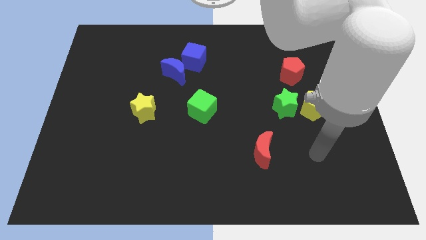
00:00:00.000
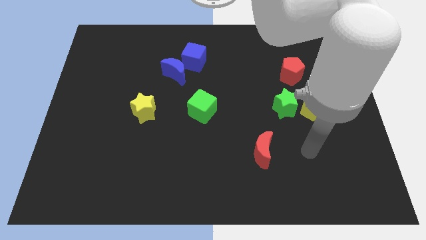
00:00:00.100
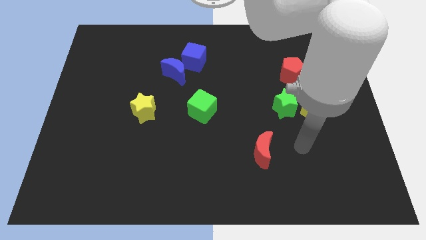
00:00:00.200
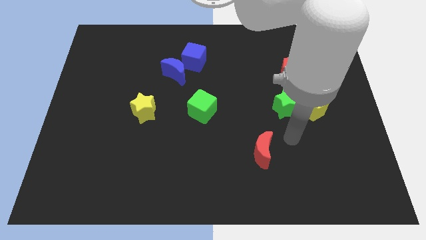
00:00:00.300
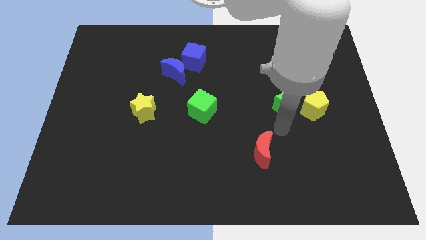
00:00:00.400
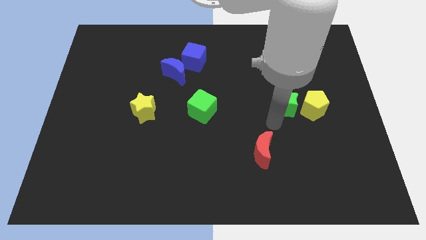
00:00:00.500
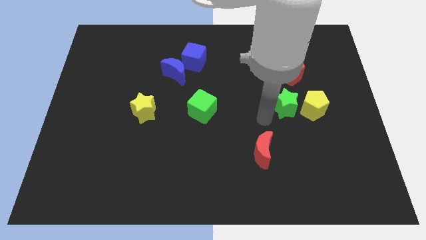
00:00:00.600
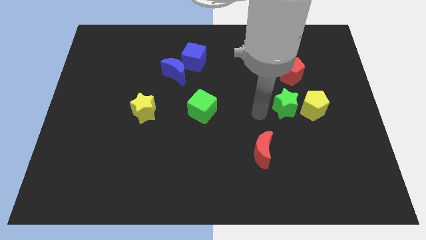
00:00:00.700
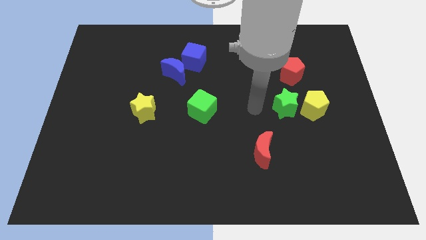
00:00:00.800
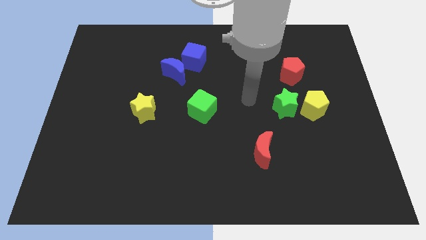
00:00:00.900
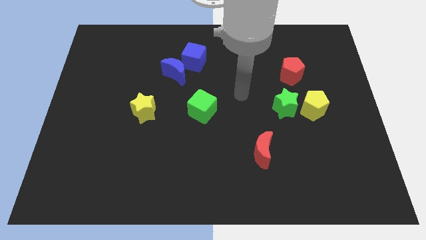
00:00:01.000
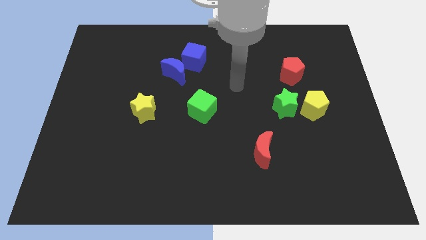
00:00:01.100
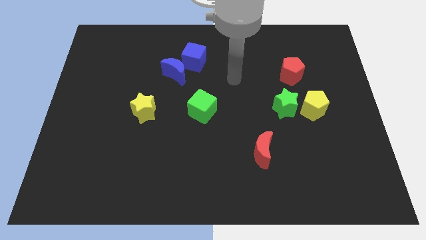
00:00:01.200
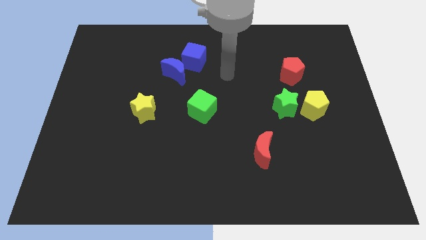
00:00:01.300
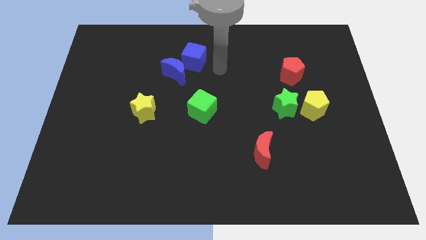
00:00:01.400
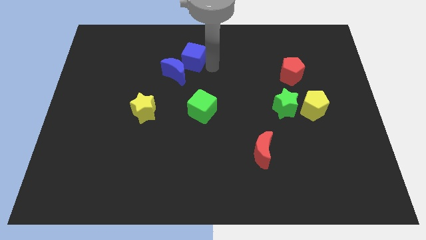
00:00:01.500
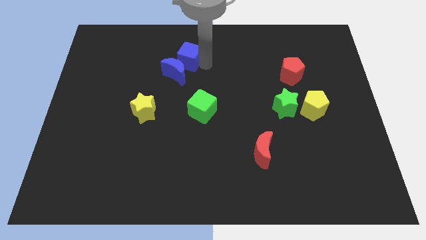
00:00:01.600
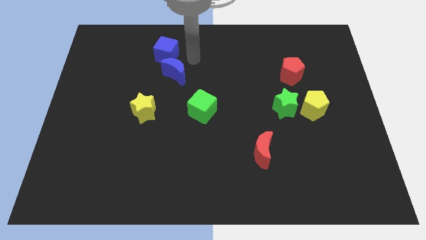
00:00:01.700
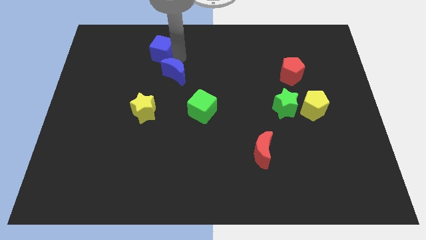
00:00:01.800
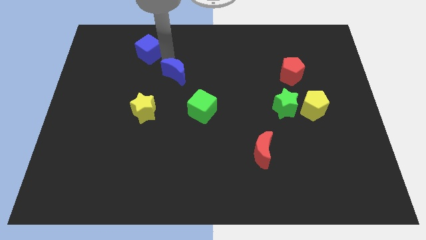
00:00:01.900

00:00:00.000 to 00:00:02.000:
separate the blue moon from the blue cube

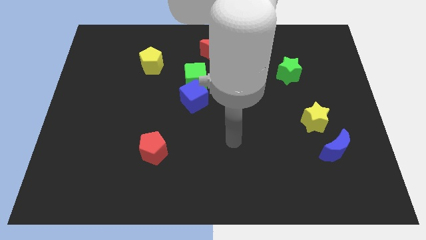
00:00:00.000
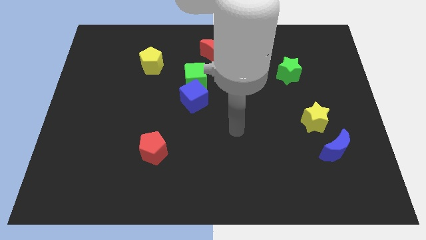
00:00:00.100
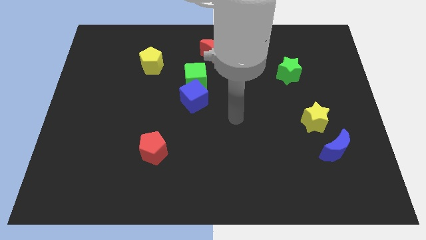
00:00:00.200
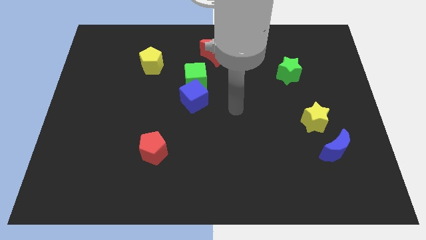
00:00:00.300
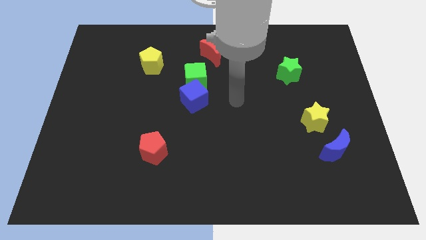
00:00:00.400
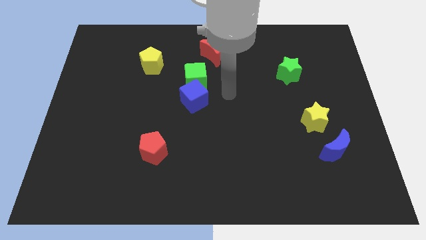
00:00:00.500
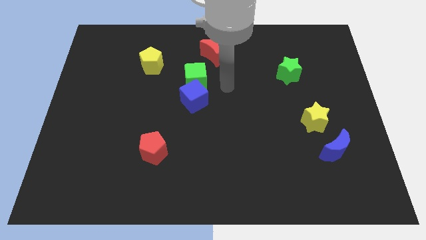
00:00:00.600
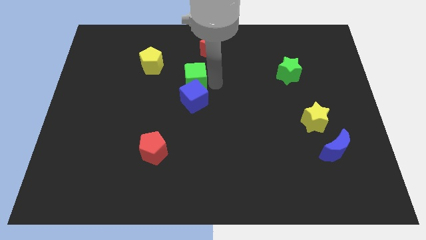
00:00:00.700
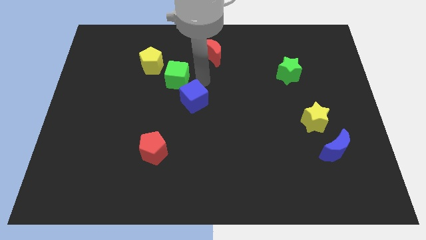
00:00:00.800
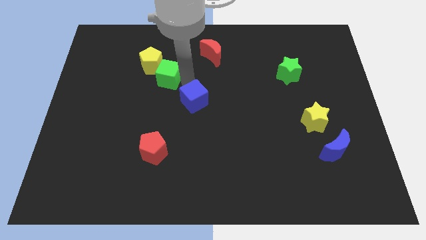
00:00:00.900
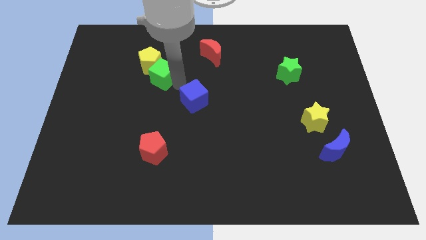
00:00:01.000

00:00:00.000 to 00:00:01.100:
pull the blue cube apart from the green cube

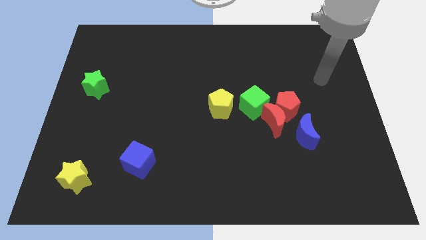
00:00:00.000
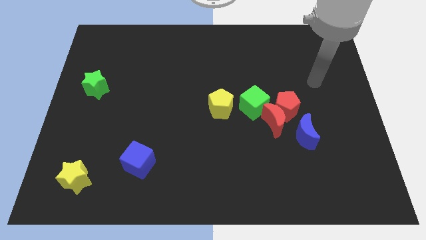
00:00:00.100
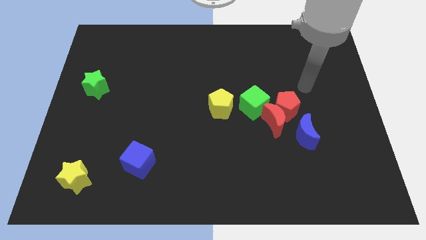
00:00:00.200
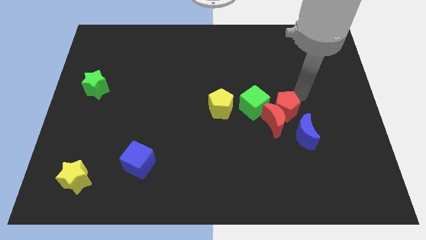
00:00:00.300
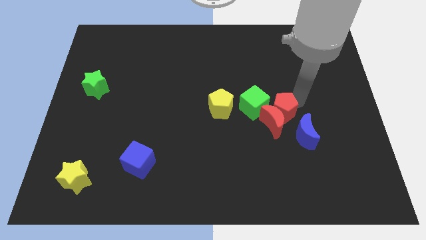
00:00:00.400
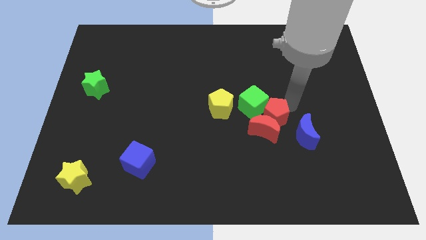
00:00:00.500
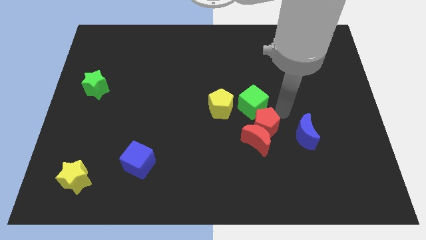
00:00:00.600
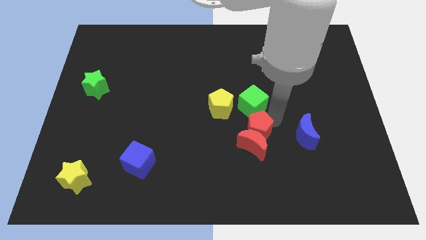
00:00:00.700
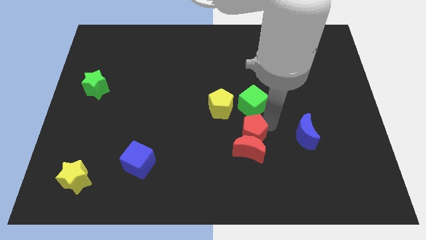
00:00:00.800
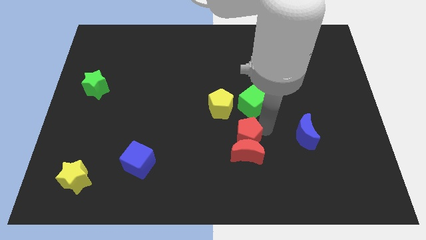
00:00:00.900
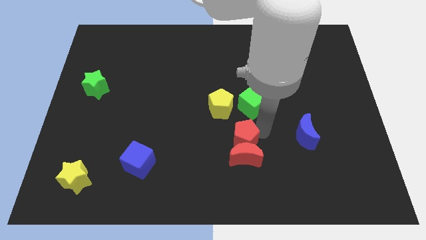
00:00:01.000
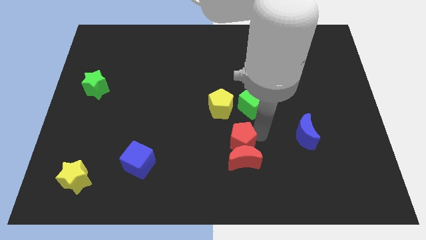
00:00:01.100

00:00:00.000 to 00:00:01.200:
move the red moon away from the red pentagon, green cube, and blue moon

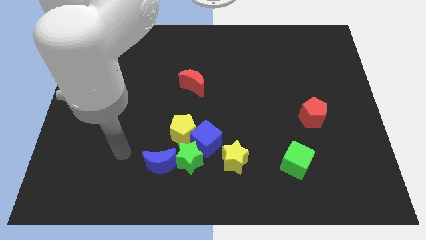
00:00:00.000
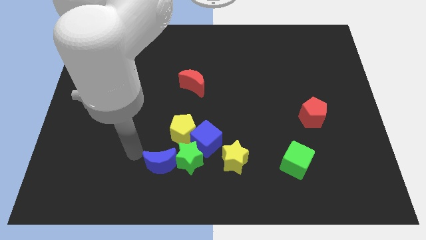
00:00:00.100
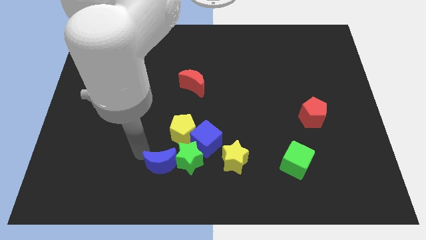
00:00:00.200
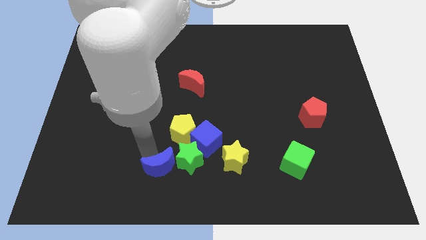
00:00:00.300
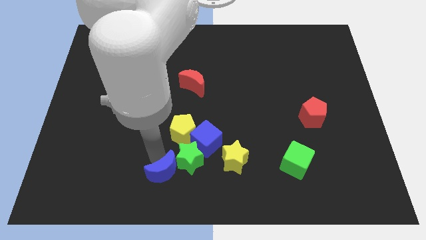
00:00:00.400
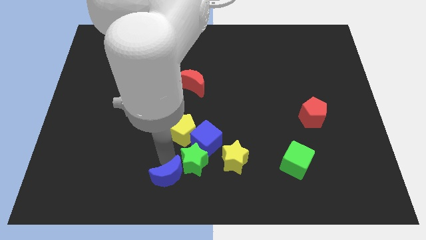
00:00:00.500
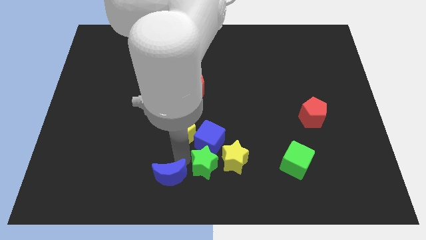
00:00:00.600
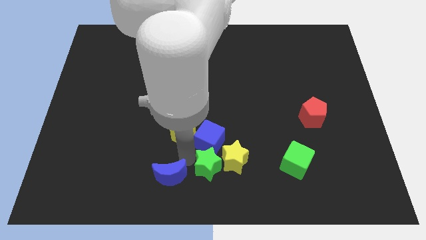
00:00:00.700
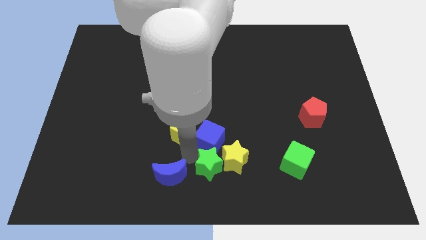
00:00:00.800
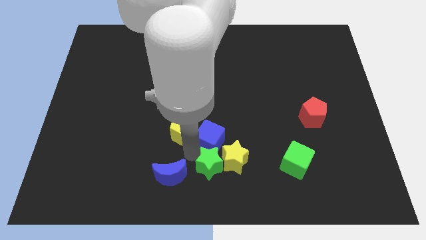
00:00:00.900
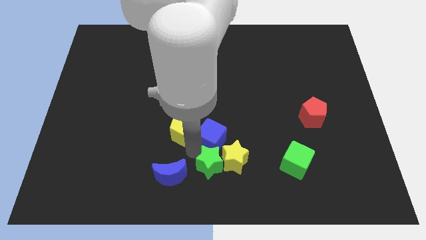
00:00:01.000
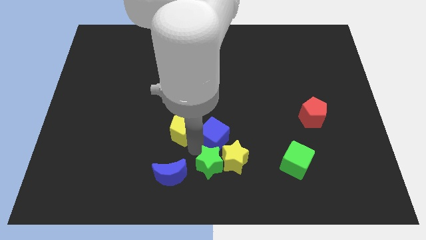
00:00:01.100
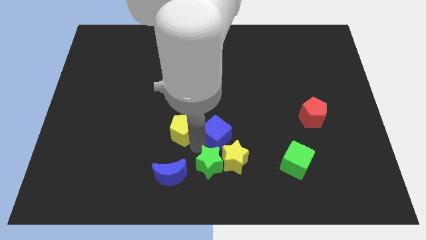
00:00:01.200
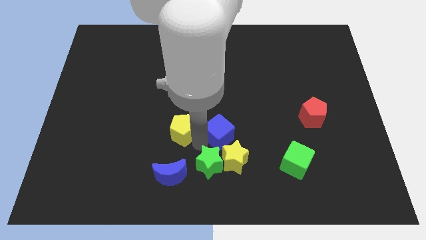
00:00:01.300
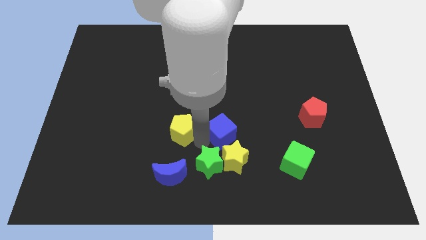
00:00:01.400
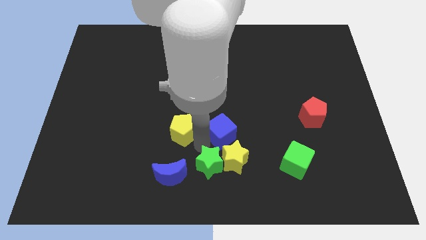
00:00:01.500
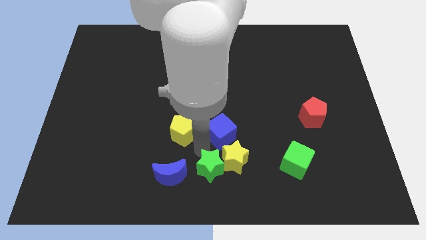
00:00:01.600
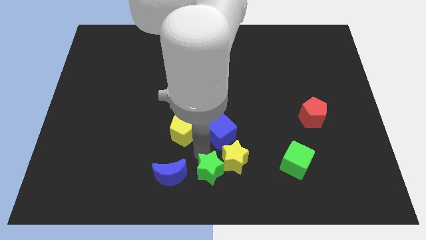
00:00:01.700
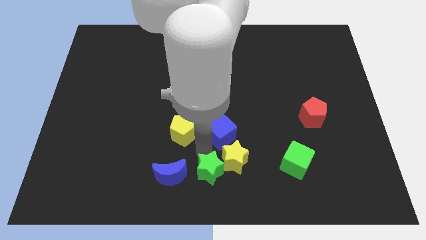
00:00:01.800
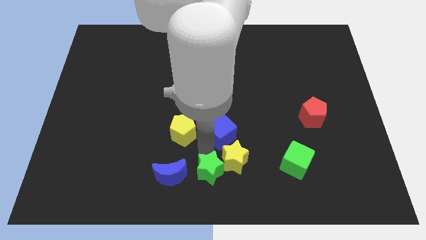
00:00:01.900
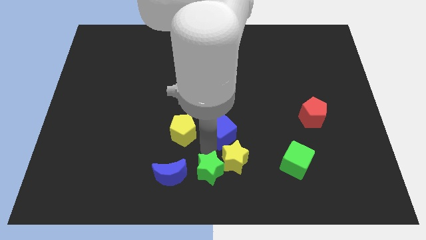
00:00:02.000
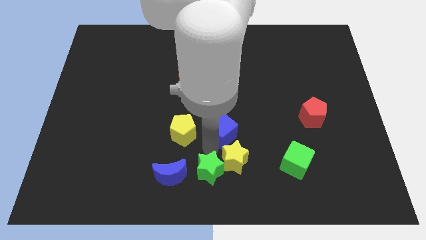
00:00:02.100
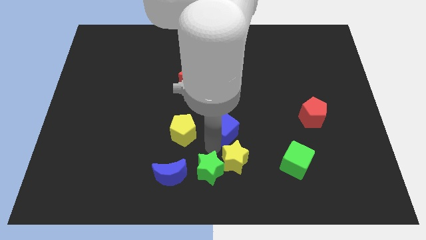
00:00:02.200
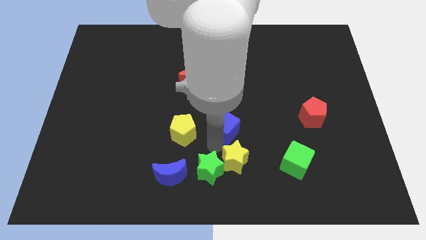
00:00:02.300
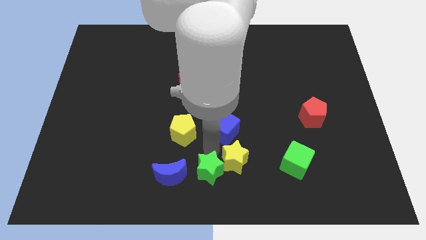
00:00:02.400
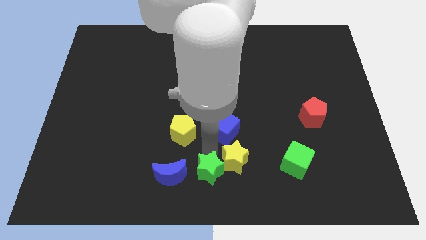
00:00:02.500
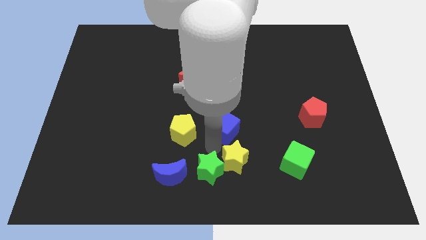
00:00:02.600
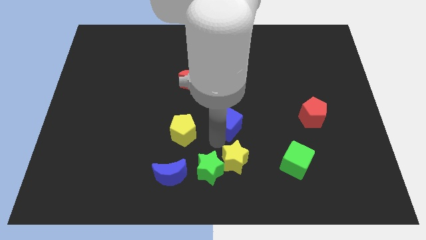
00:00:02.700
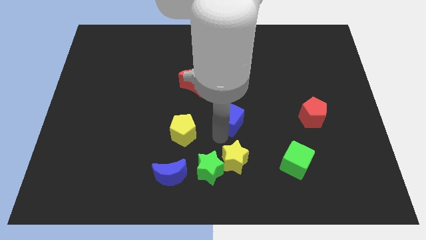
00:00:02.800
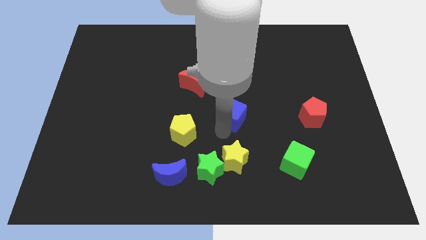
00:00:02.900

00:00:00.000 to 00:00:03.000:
move the blue cube away from the clump

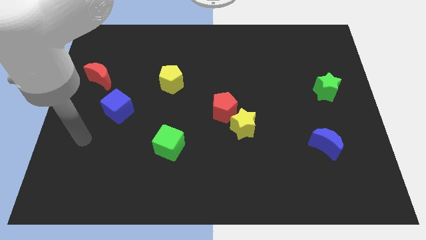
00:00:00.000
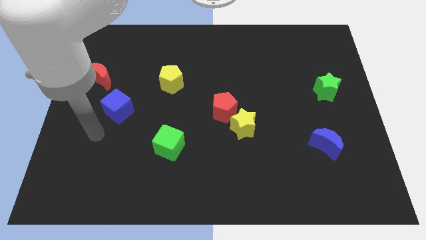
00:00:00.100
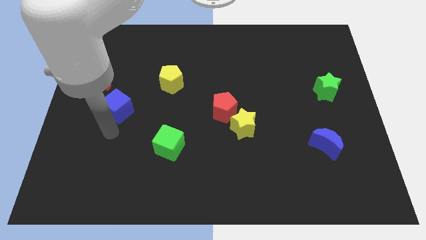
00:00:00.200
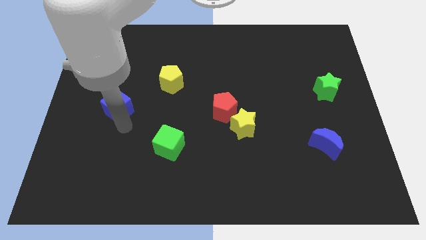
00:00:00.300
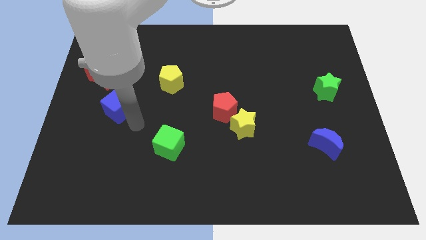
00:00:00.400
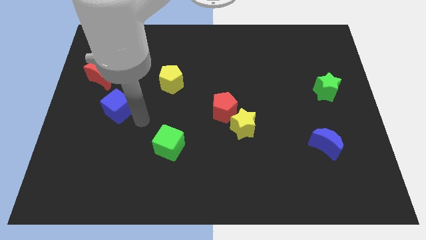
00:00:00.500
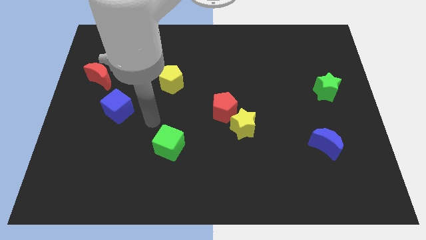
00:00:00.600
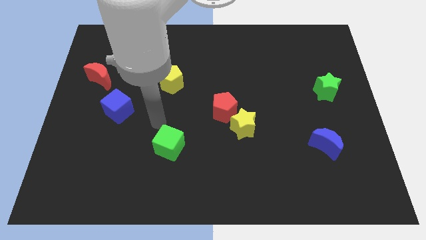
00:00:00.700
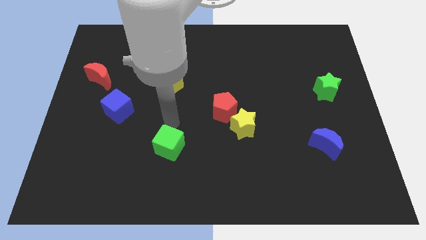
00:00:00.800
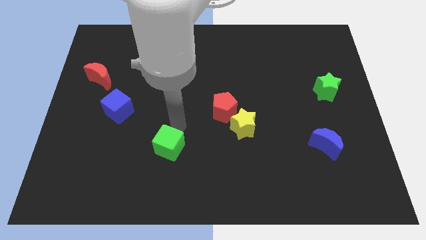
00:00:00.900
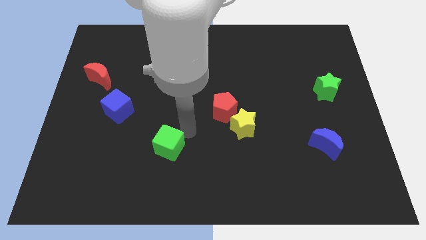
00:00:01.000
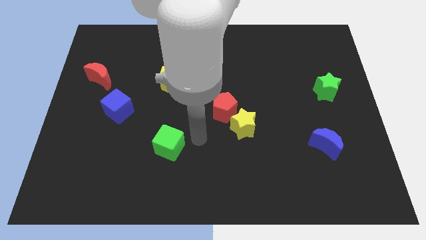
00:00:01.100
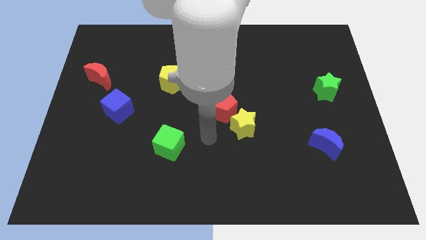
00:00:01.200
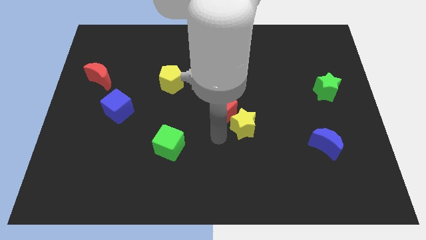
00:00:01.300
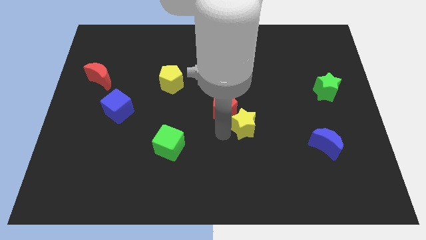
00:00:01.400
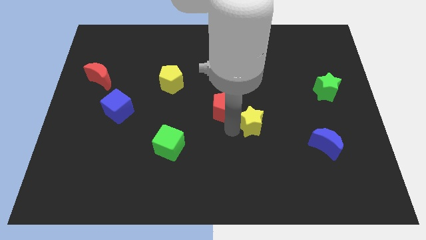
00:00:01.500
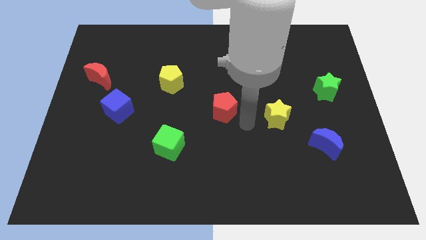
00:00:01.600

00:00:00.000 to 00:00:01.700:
pull the red pentagon apart from the yellow star

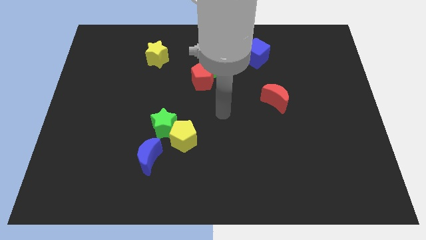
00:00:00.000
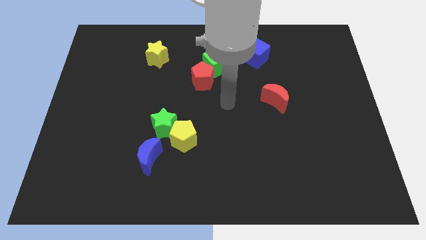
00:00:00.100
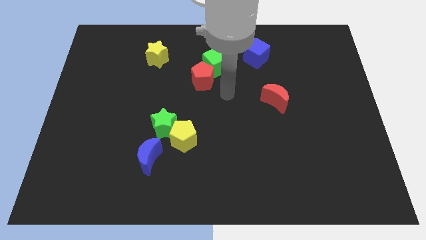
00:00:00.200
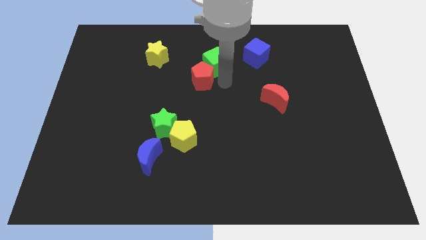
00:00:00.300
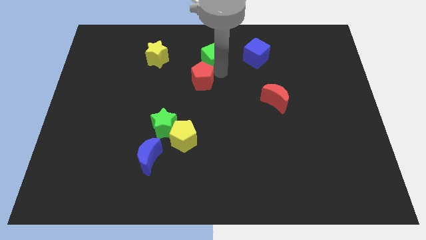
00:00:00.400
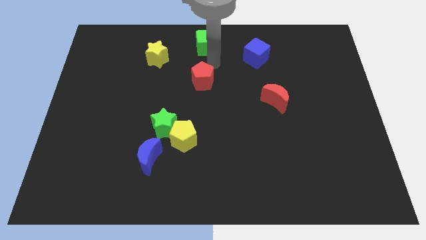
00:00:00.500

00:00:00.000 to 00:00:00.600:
separate the red pentagon from the green cube
